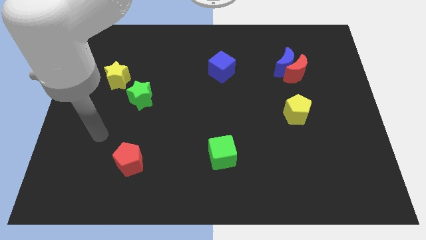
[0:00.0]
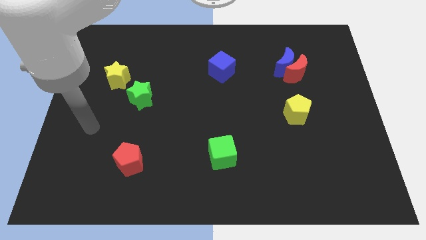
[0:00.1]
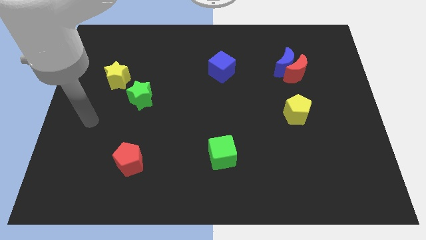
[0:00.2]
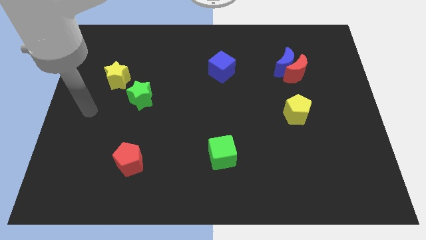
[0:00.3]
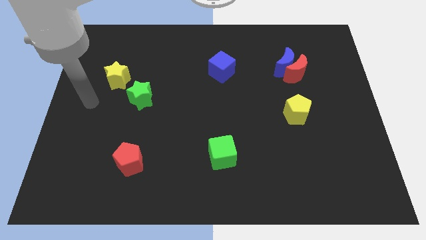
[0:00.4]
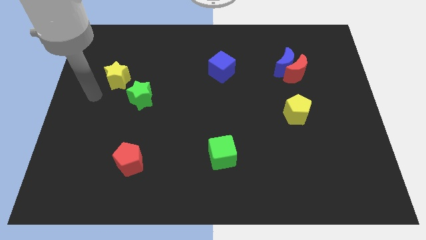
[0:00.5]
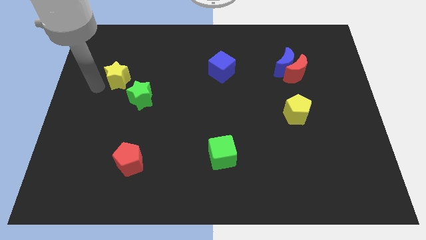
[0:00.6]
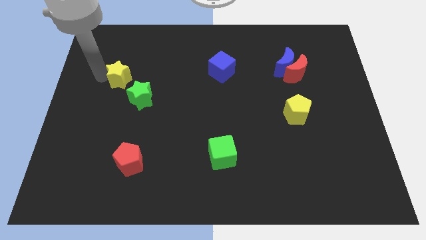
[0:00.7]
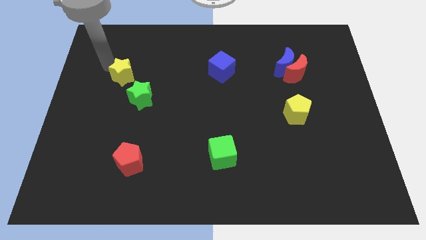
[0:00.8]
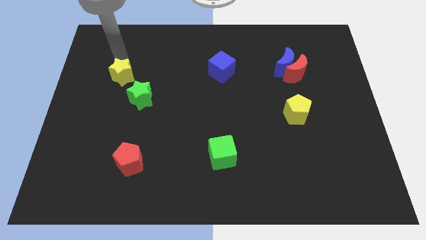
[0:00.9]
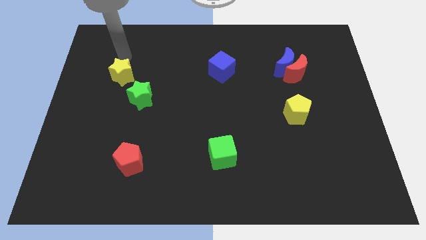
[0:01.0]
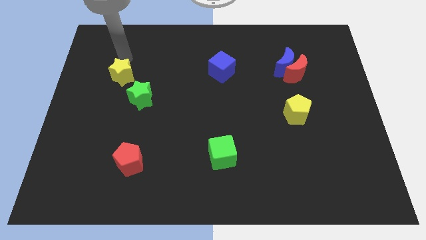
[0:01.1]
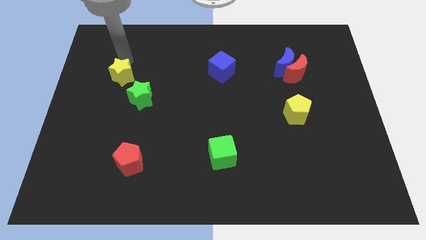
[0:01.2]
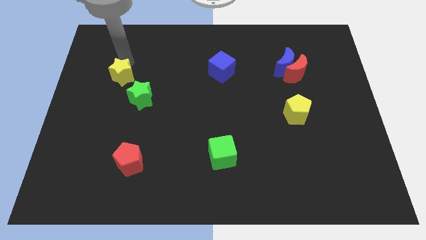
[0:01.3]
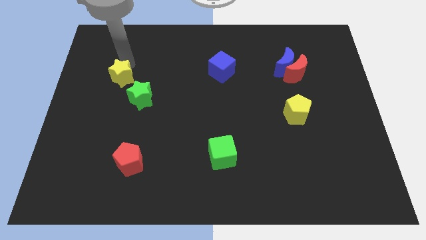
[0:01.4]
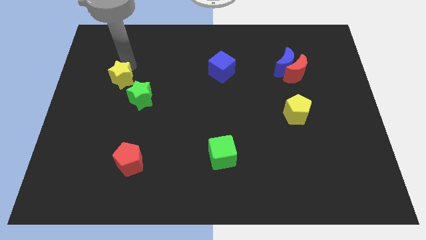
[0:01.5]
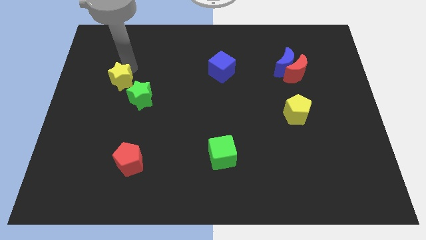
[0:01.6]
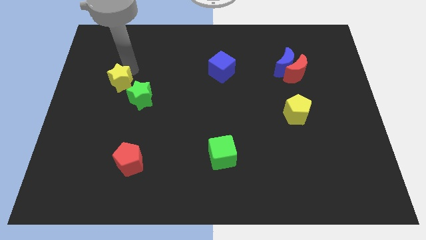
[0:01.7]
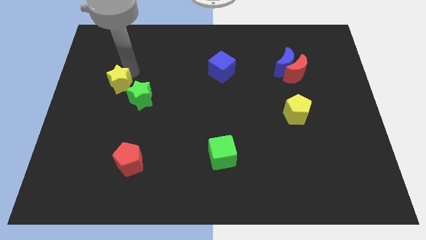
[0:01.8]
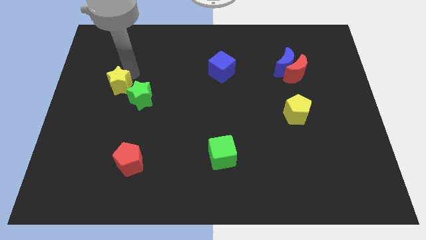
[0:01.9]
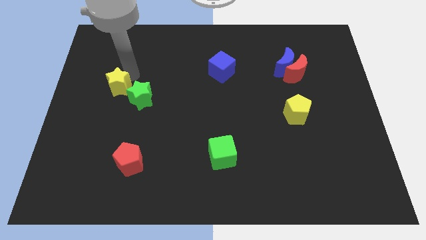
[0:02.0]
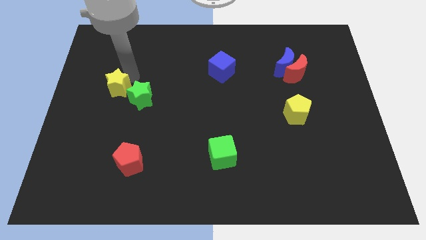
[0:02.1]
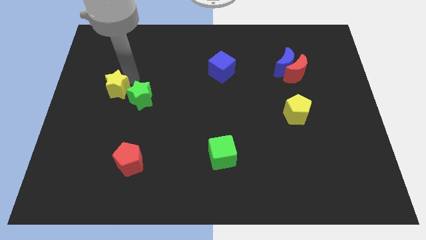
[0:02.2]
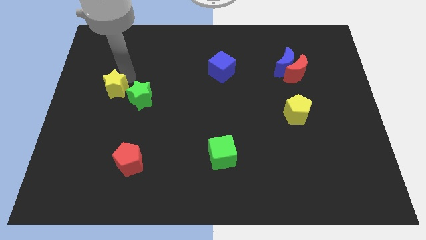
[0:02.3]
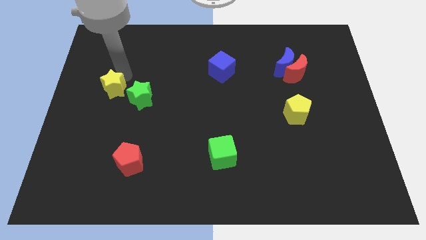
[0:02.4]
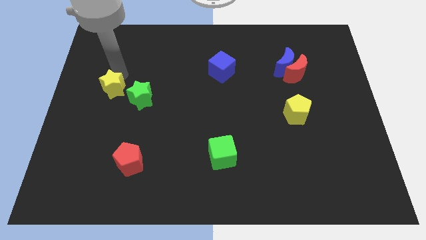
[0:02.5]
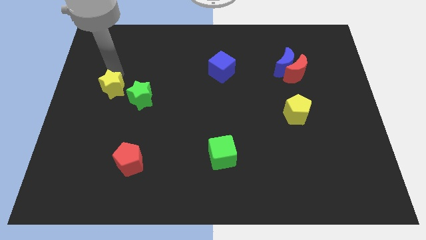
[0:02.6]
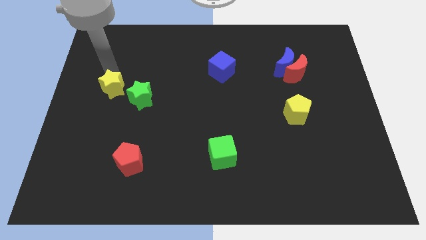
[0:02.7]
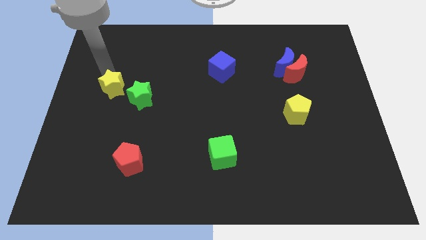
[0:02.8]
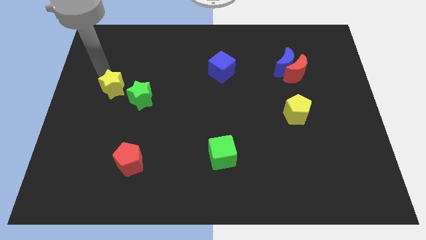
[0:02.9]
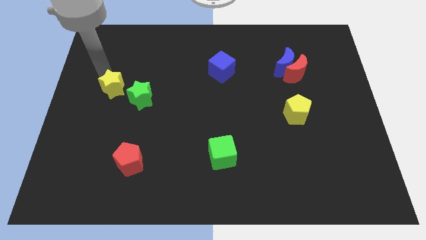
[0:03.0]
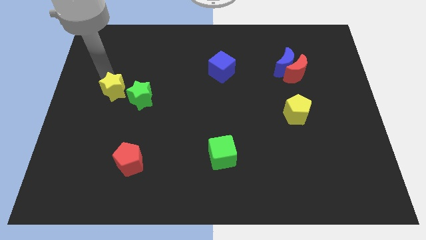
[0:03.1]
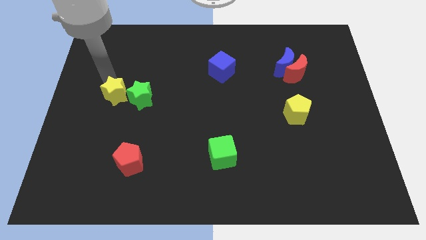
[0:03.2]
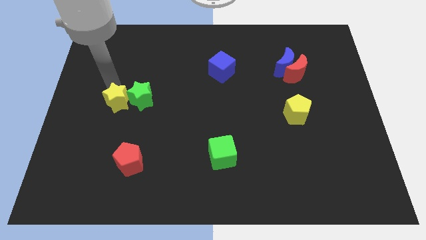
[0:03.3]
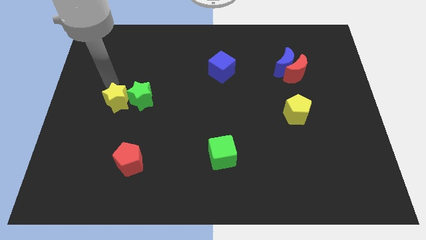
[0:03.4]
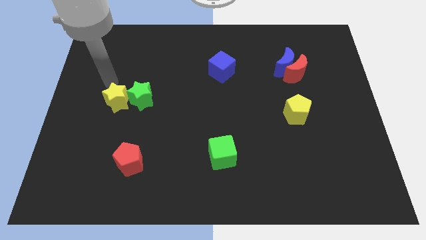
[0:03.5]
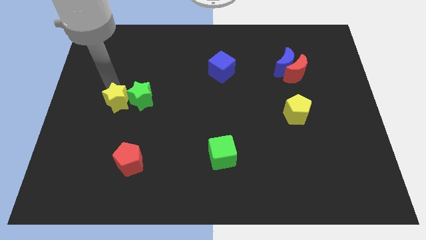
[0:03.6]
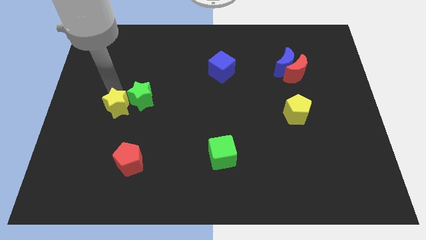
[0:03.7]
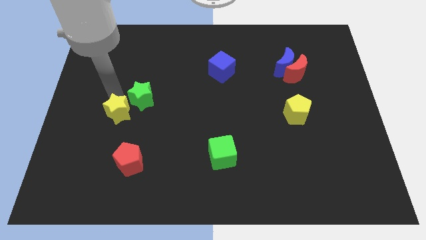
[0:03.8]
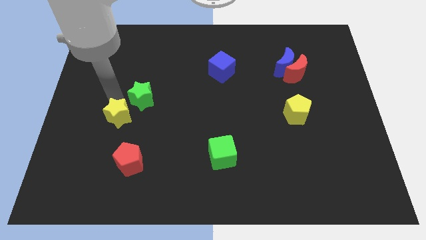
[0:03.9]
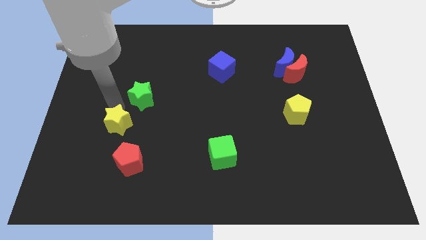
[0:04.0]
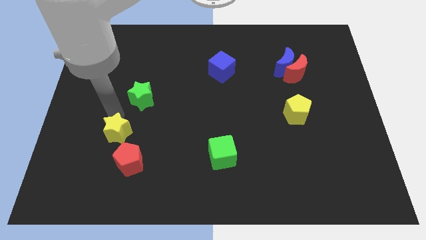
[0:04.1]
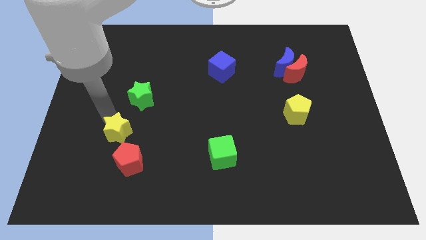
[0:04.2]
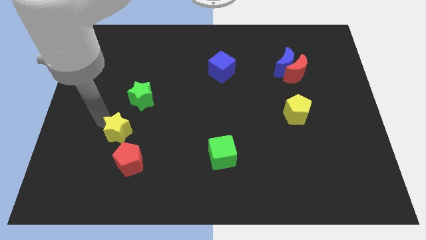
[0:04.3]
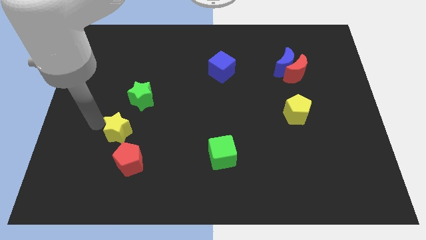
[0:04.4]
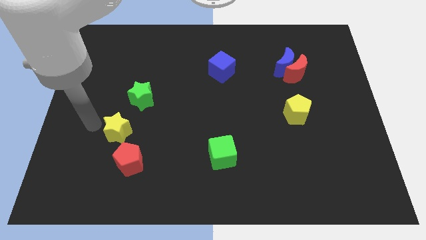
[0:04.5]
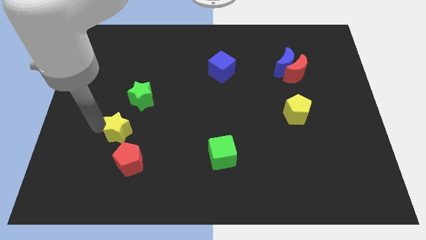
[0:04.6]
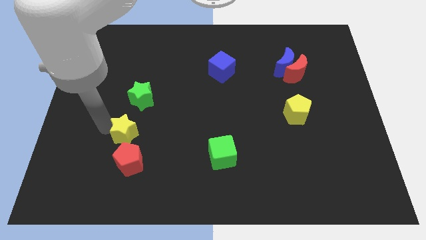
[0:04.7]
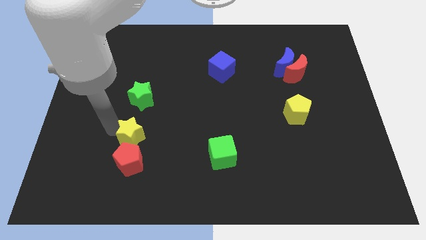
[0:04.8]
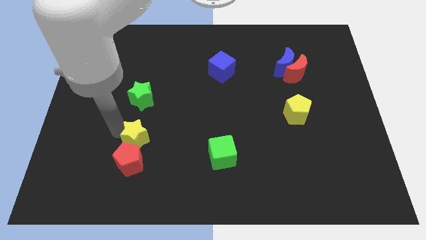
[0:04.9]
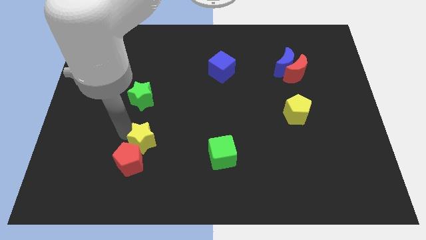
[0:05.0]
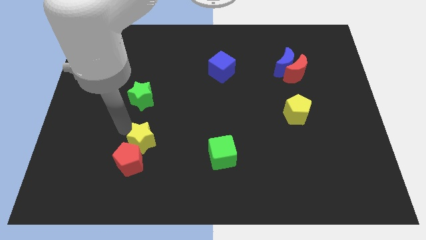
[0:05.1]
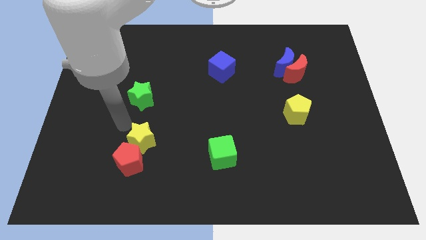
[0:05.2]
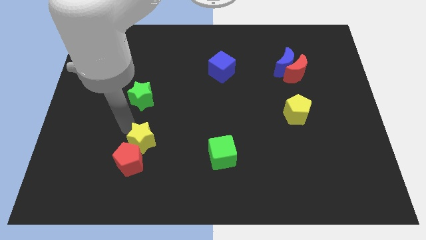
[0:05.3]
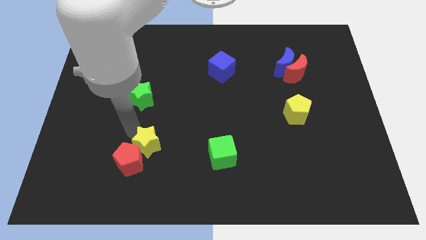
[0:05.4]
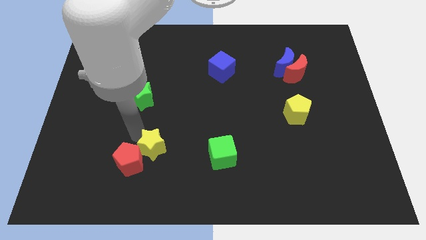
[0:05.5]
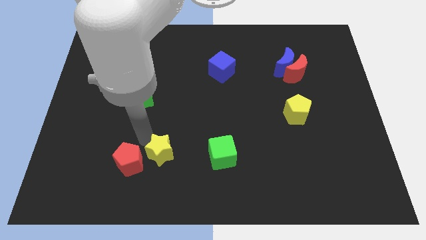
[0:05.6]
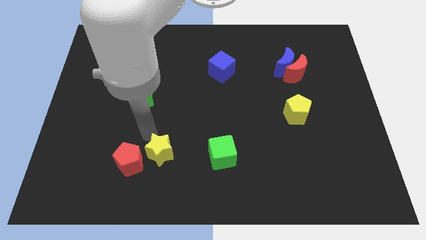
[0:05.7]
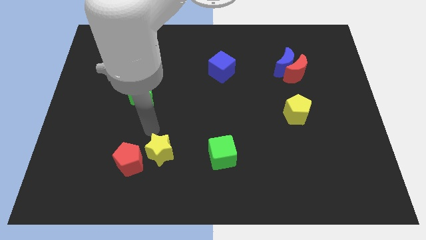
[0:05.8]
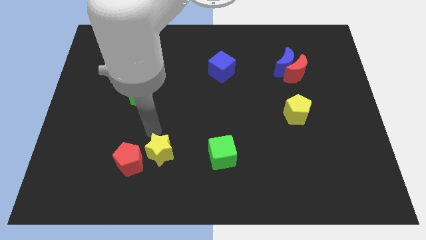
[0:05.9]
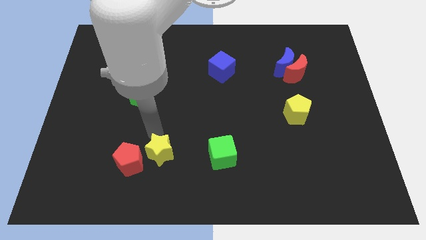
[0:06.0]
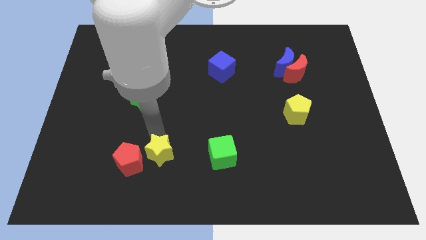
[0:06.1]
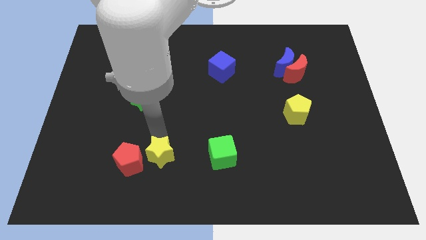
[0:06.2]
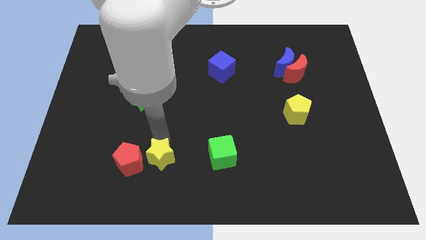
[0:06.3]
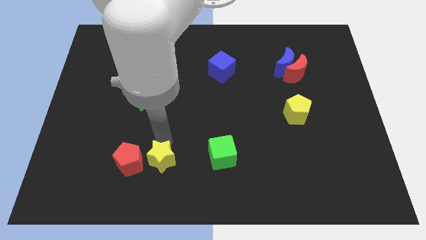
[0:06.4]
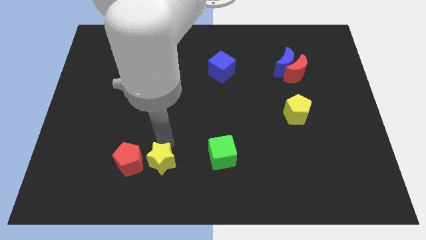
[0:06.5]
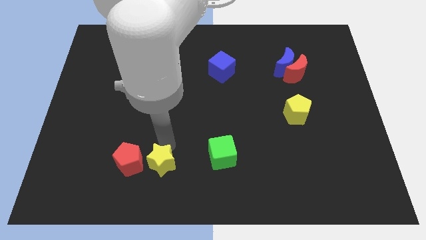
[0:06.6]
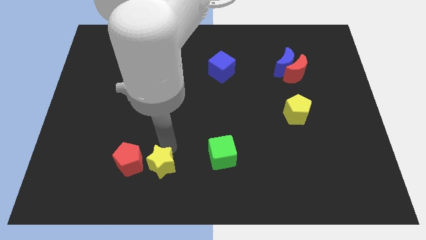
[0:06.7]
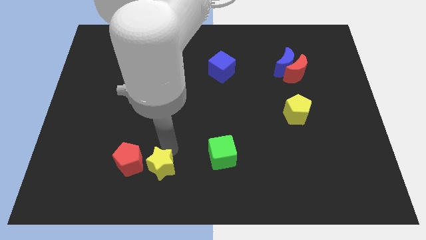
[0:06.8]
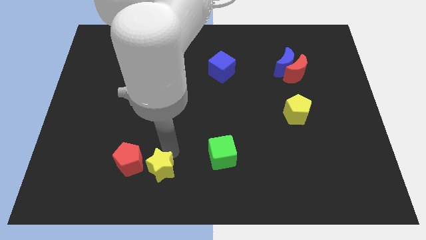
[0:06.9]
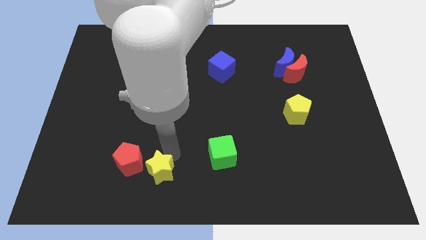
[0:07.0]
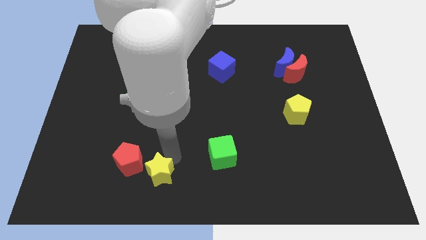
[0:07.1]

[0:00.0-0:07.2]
put the yellow star to the bottom
